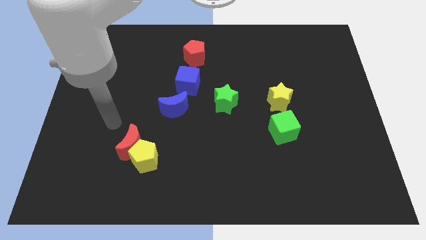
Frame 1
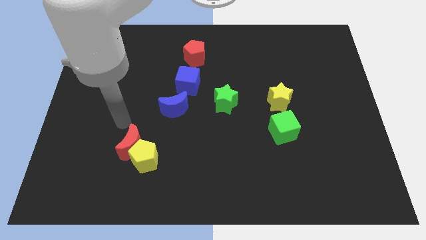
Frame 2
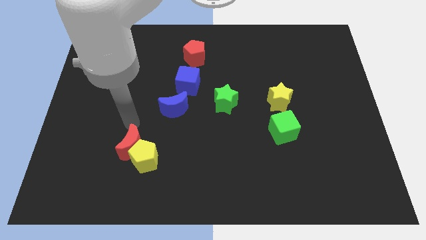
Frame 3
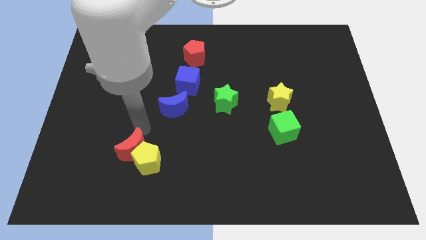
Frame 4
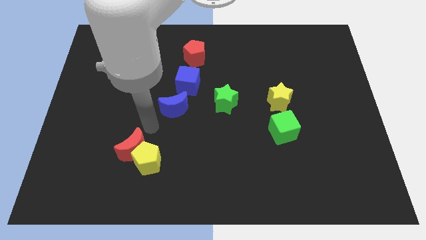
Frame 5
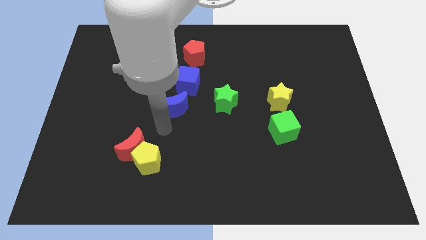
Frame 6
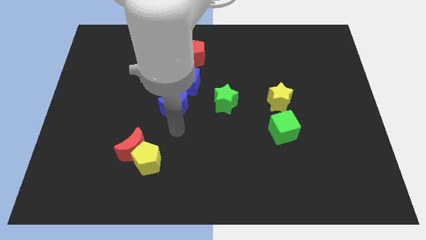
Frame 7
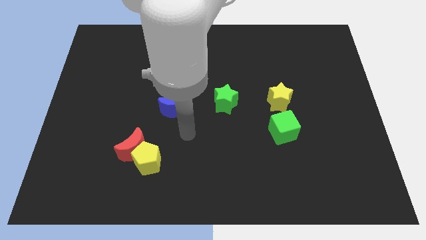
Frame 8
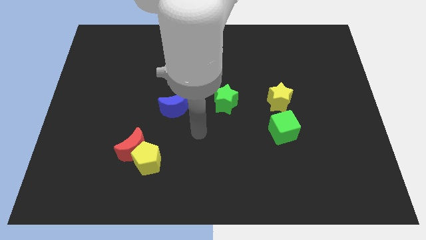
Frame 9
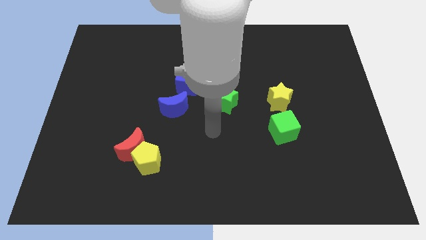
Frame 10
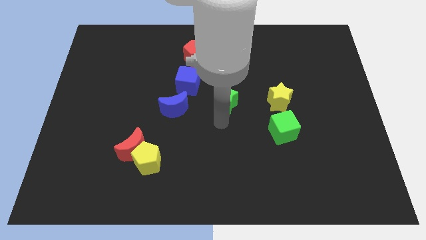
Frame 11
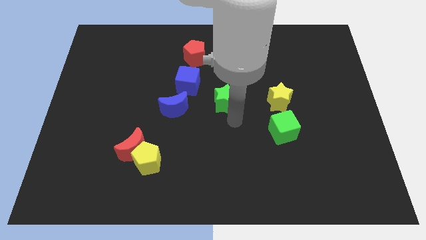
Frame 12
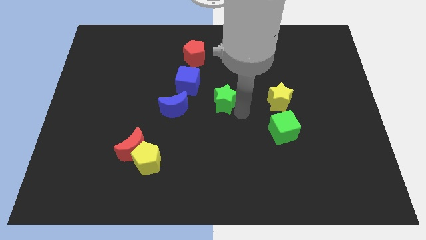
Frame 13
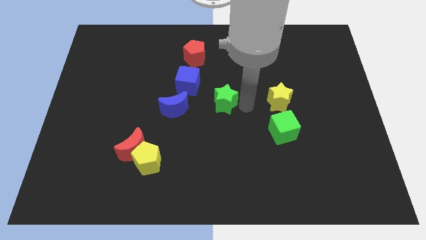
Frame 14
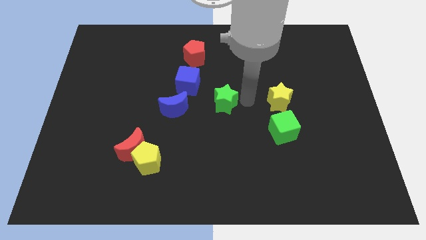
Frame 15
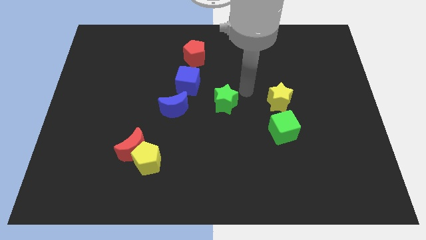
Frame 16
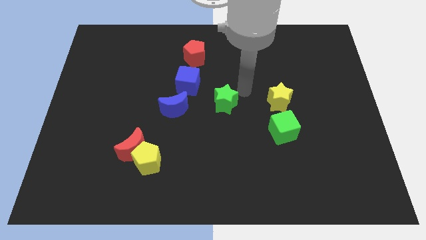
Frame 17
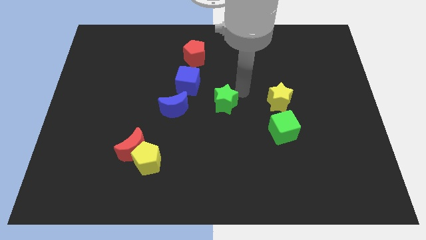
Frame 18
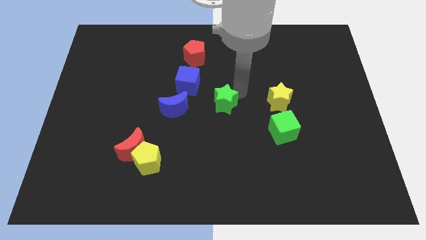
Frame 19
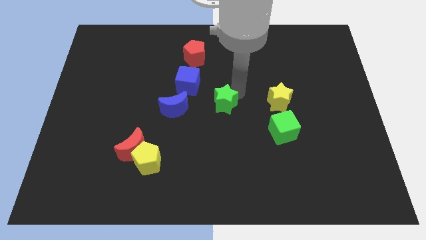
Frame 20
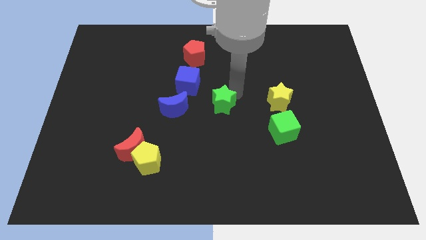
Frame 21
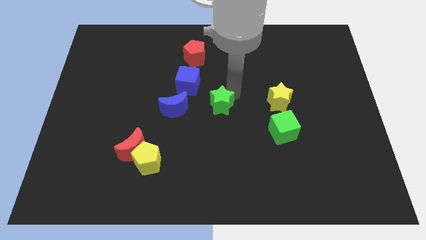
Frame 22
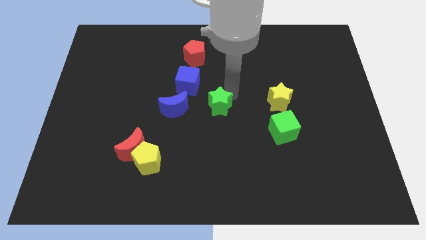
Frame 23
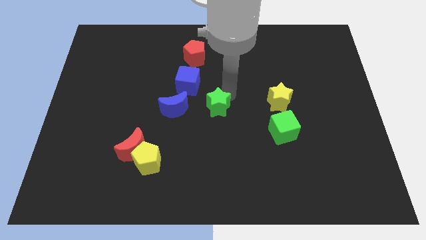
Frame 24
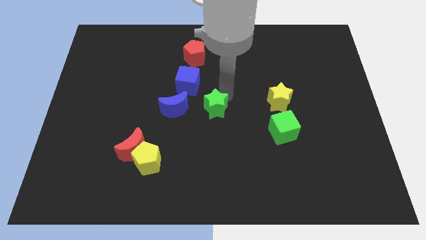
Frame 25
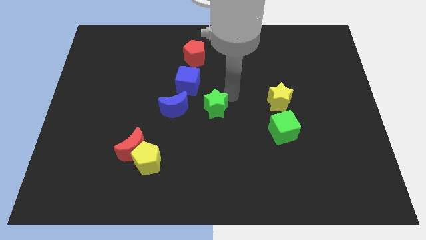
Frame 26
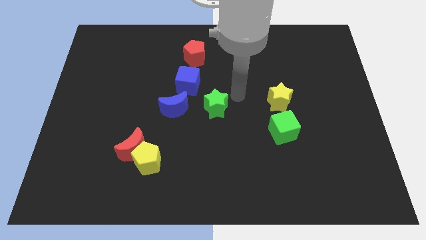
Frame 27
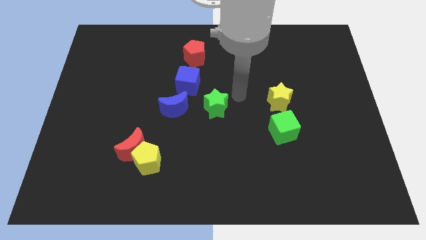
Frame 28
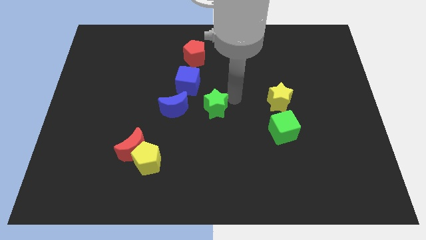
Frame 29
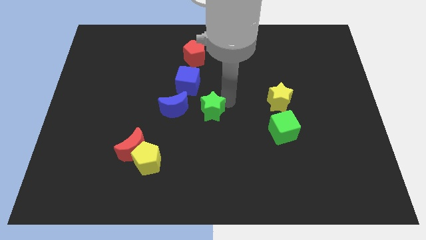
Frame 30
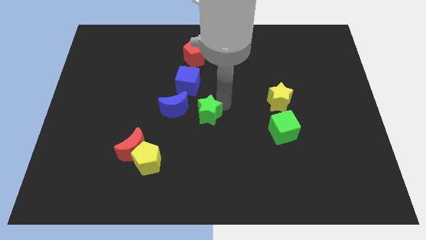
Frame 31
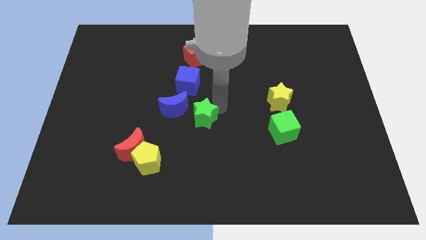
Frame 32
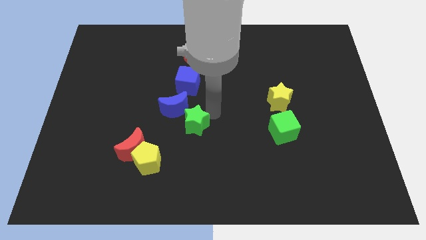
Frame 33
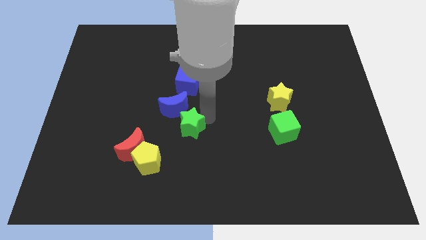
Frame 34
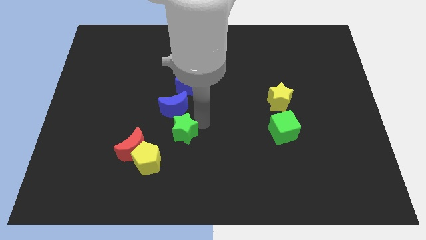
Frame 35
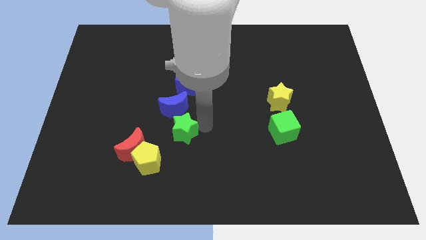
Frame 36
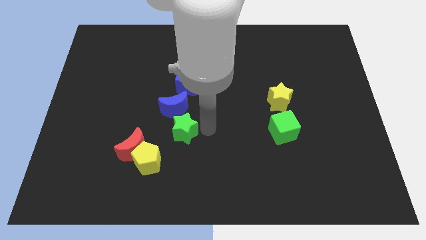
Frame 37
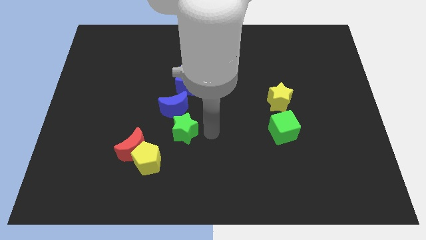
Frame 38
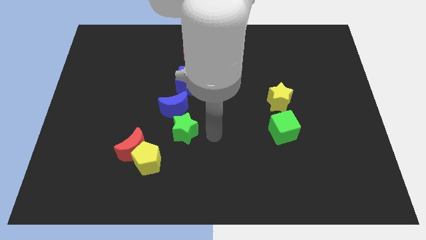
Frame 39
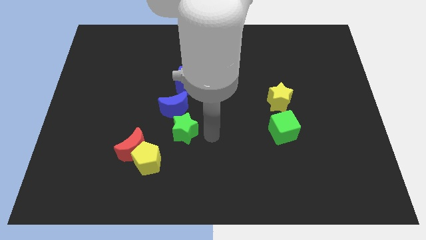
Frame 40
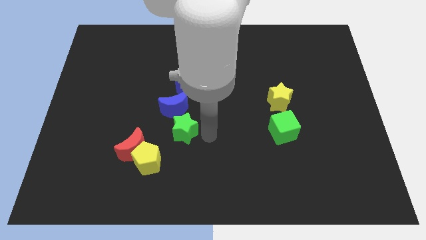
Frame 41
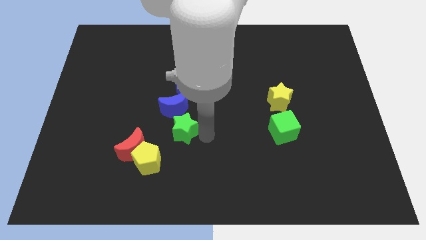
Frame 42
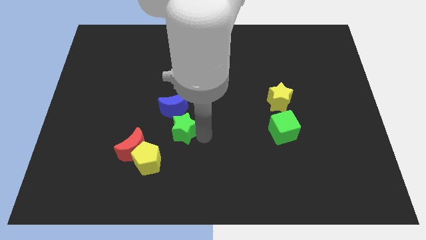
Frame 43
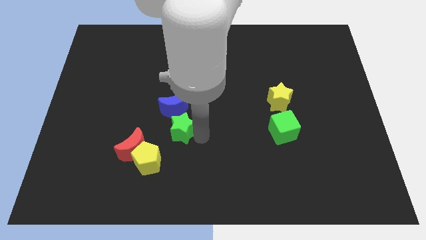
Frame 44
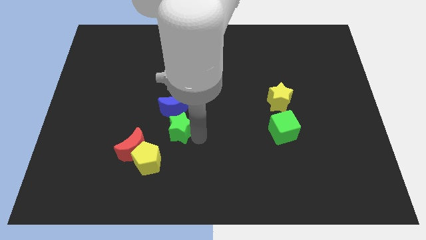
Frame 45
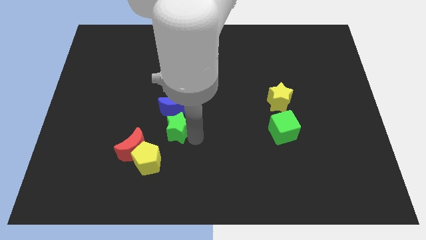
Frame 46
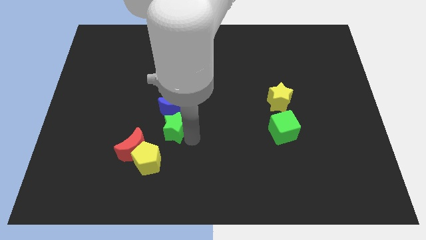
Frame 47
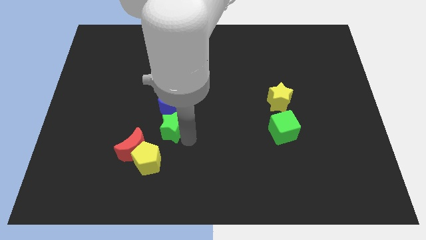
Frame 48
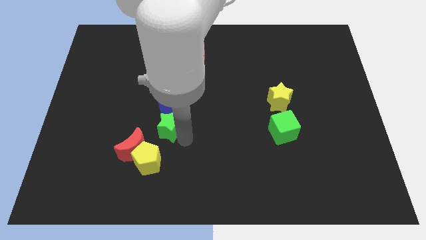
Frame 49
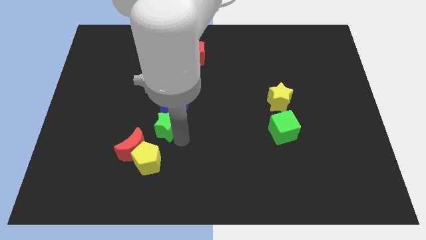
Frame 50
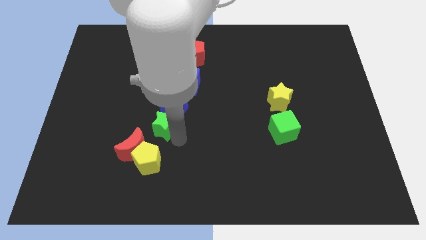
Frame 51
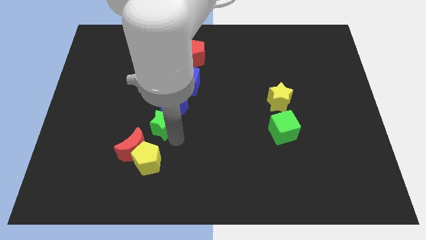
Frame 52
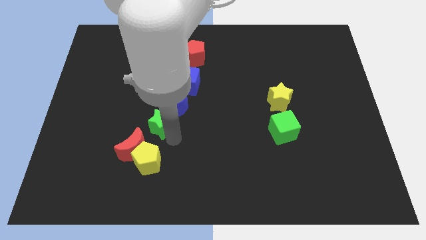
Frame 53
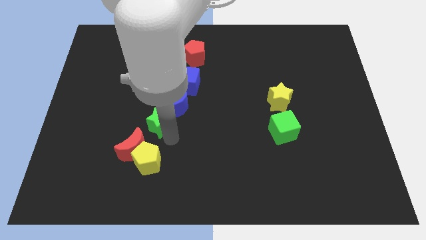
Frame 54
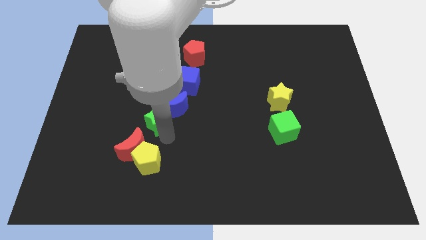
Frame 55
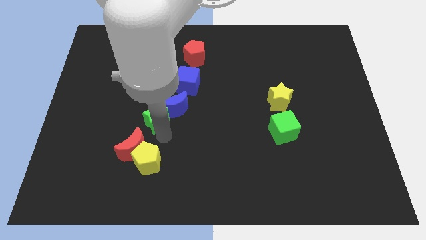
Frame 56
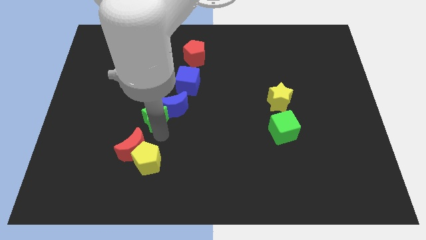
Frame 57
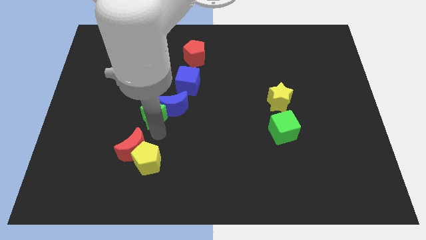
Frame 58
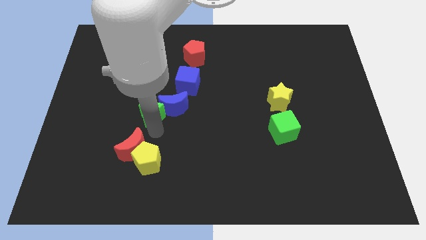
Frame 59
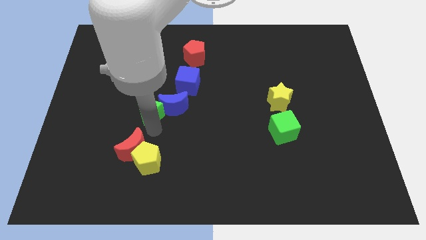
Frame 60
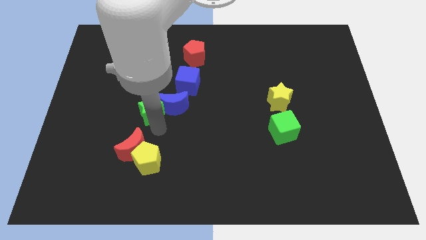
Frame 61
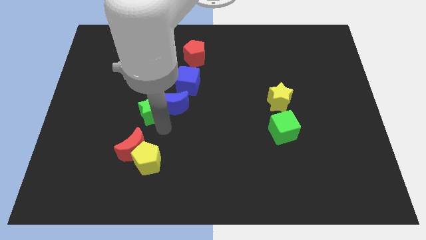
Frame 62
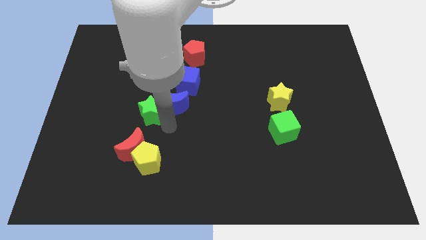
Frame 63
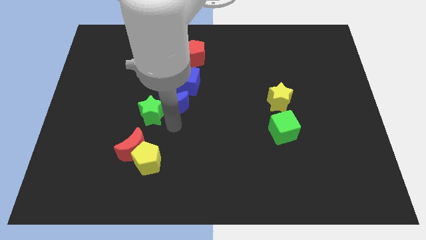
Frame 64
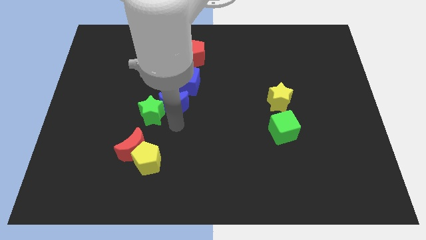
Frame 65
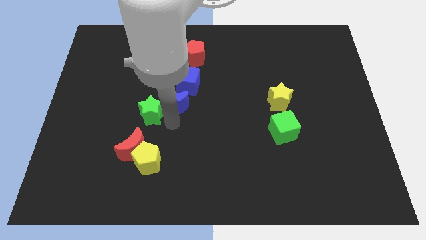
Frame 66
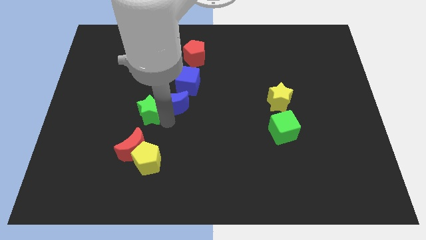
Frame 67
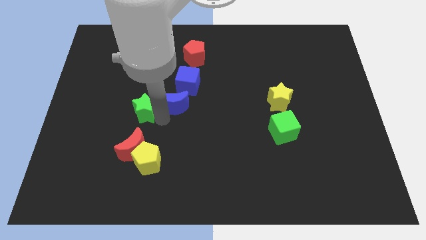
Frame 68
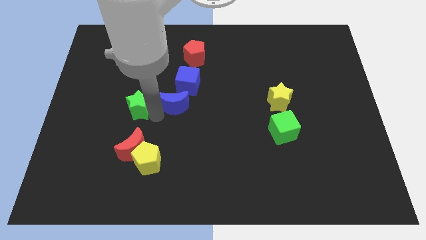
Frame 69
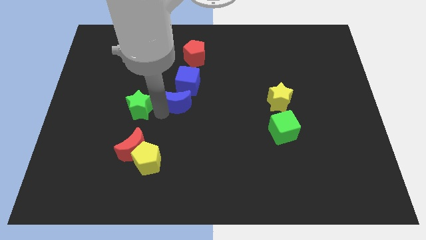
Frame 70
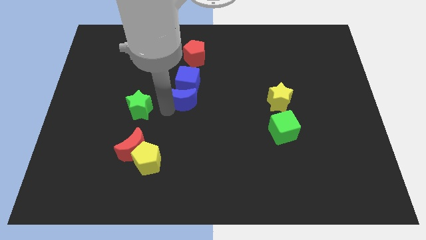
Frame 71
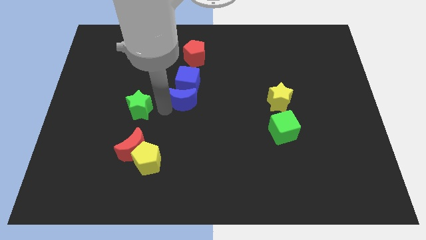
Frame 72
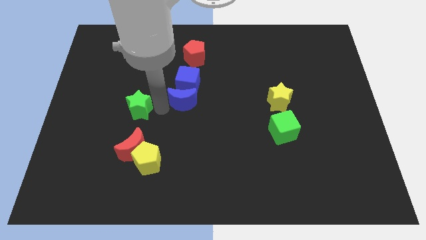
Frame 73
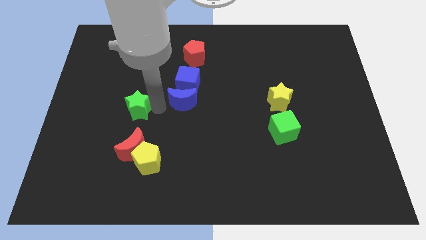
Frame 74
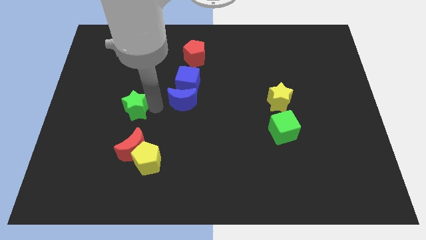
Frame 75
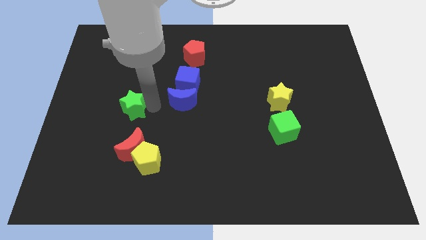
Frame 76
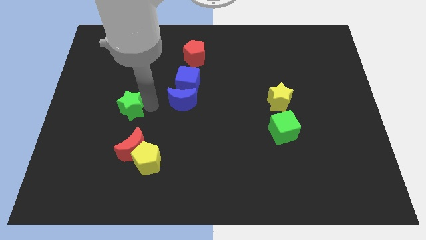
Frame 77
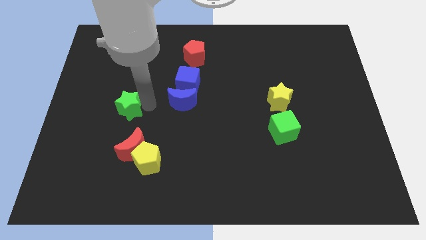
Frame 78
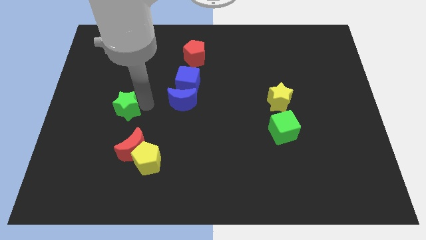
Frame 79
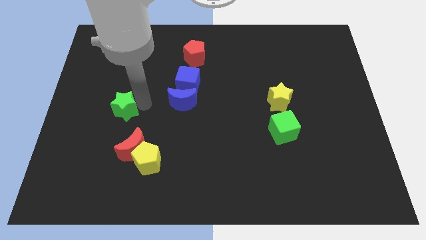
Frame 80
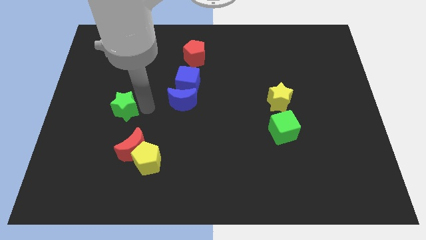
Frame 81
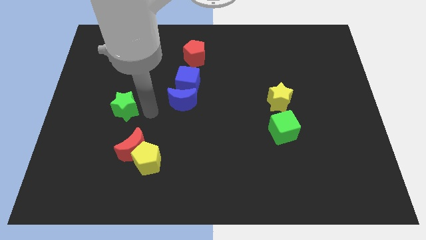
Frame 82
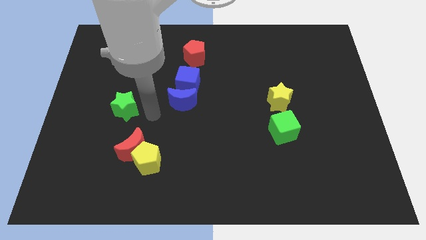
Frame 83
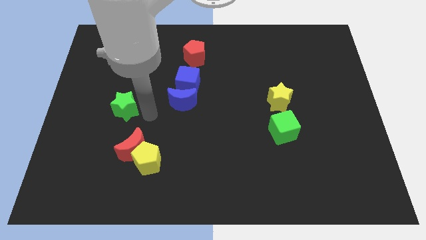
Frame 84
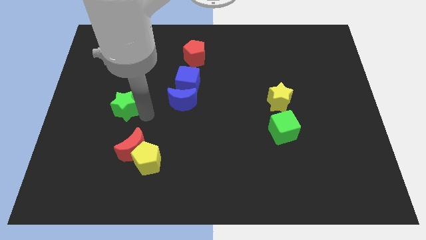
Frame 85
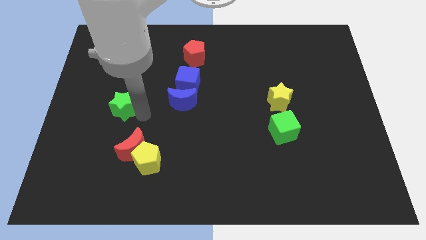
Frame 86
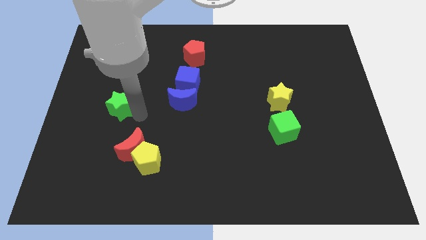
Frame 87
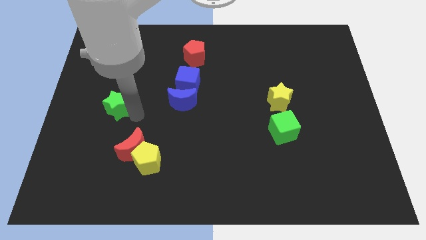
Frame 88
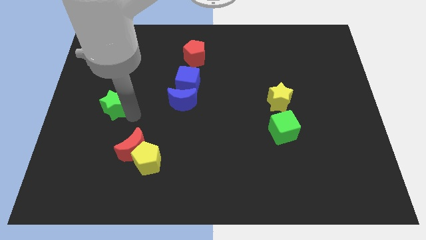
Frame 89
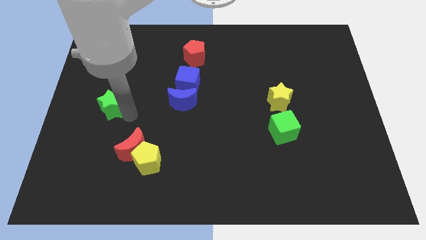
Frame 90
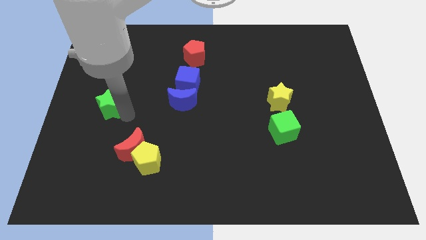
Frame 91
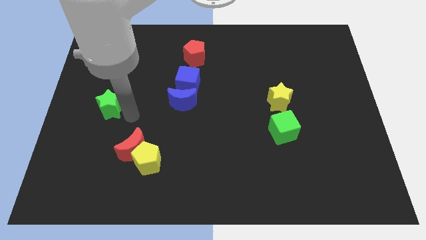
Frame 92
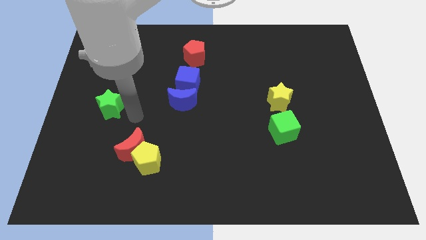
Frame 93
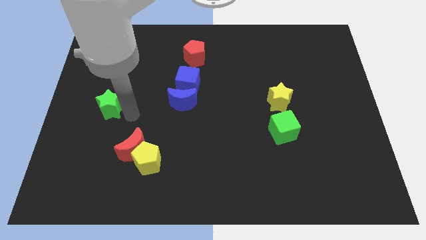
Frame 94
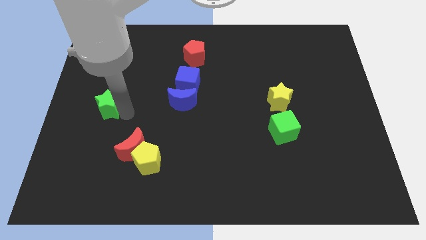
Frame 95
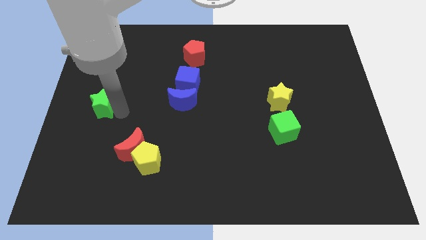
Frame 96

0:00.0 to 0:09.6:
move the green star to the left side
